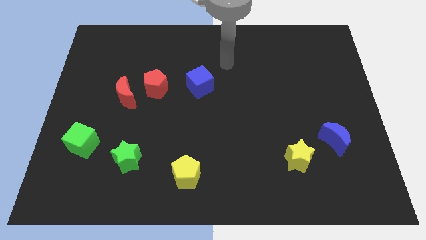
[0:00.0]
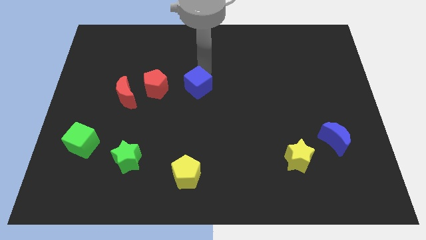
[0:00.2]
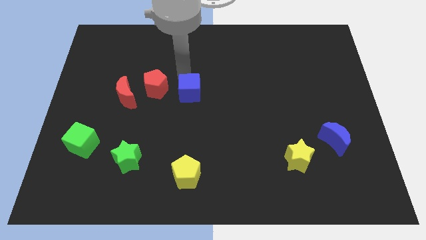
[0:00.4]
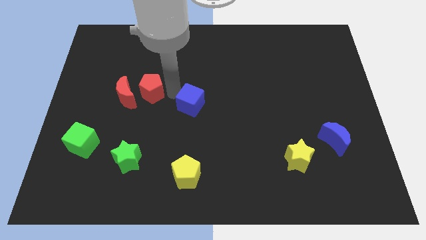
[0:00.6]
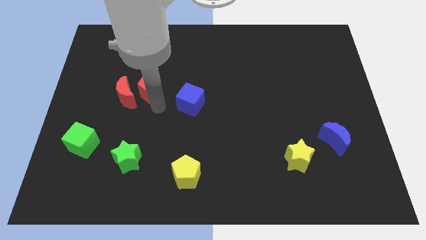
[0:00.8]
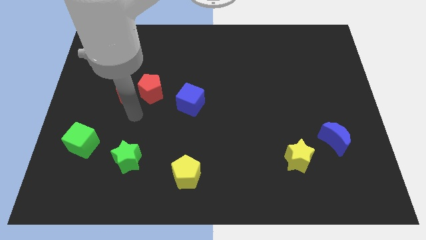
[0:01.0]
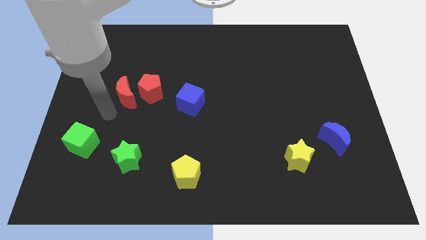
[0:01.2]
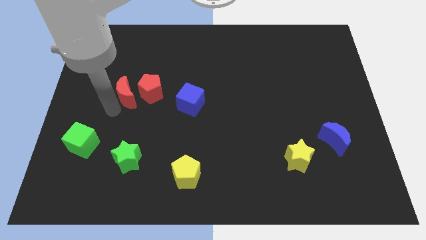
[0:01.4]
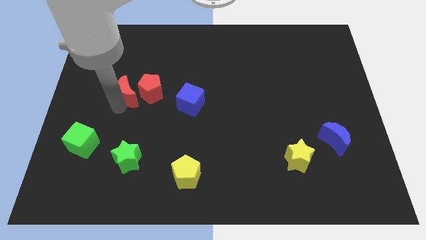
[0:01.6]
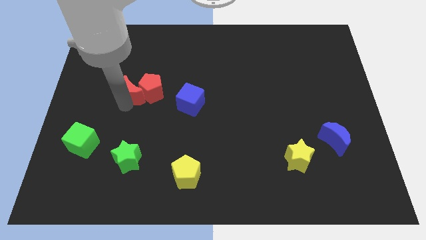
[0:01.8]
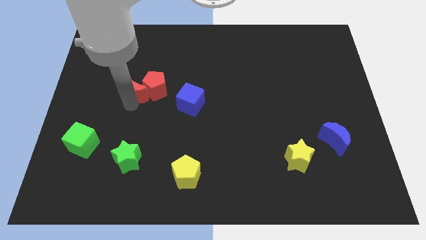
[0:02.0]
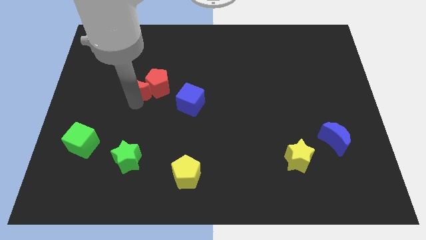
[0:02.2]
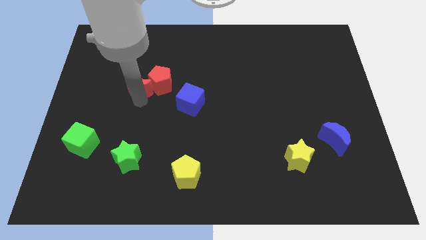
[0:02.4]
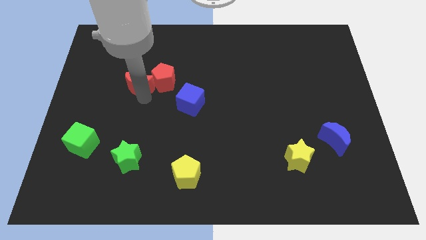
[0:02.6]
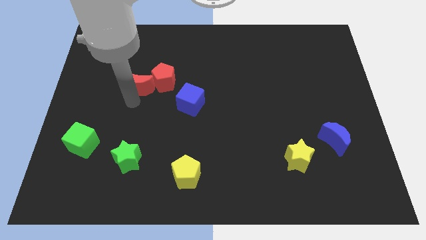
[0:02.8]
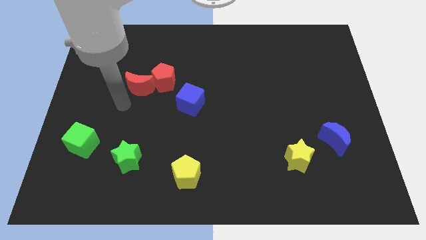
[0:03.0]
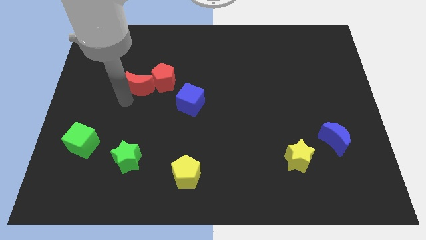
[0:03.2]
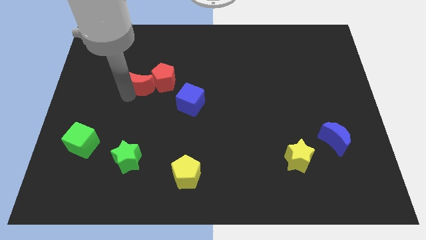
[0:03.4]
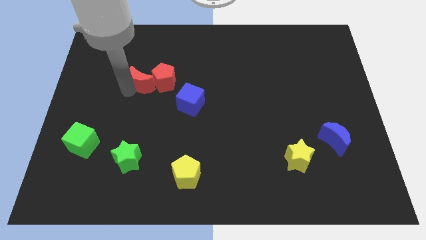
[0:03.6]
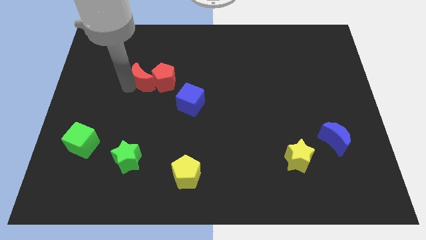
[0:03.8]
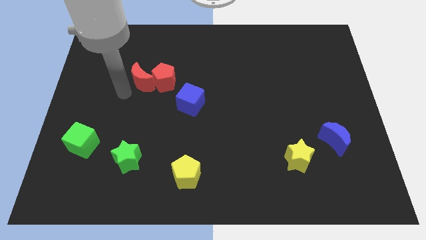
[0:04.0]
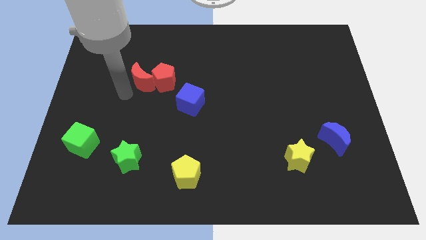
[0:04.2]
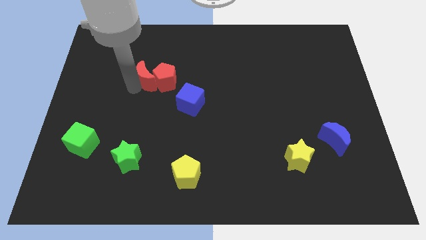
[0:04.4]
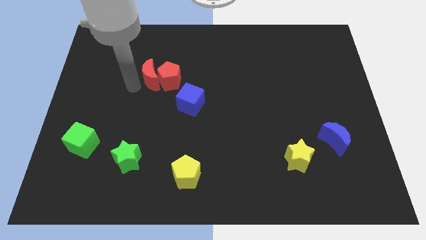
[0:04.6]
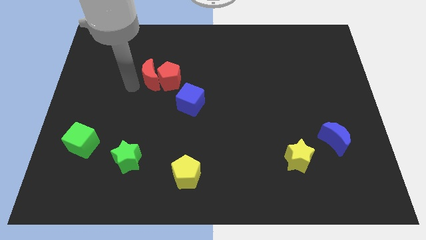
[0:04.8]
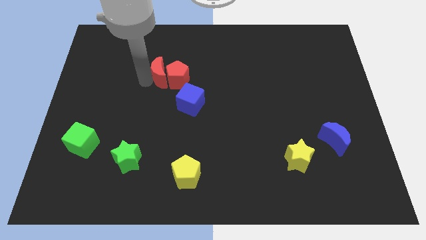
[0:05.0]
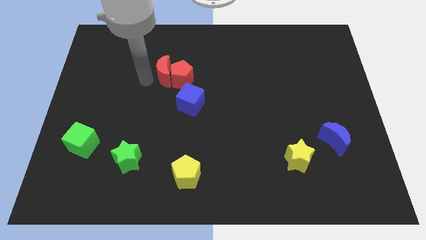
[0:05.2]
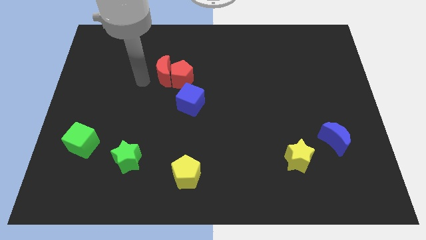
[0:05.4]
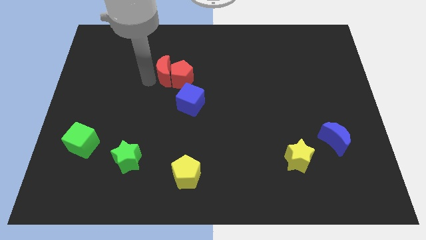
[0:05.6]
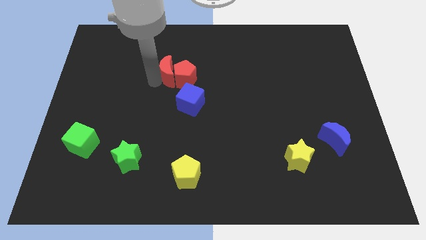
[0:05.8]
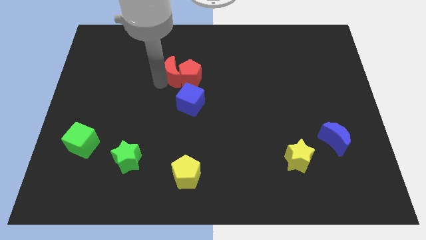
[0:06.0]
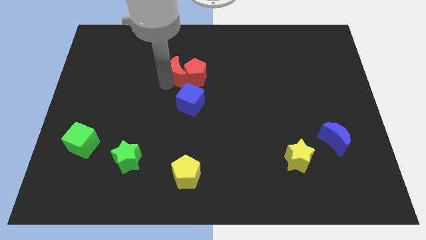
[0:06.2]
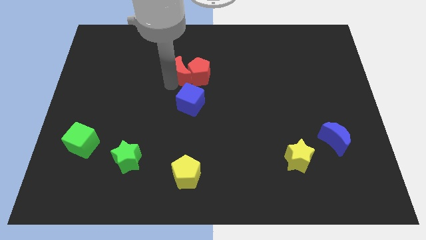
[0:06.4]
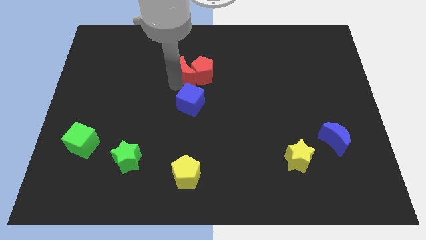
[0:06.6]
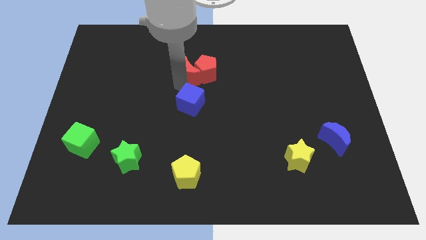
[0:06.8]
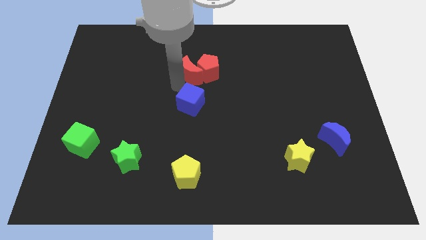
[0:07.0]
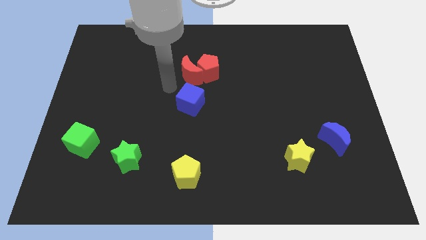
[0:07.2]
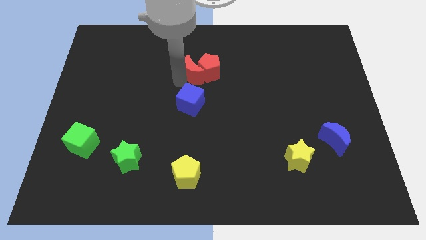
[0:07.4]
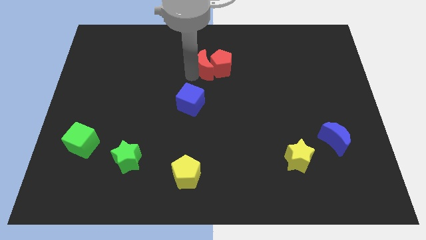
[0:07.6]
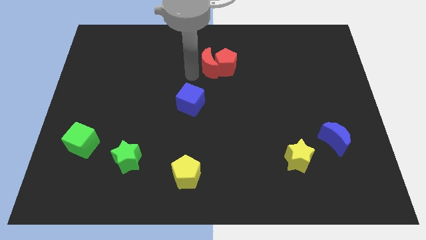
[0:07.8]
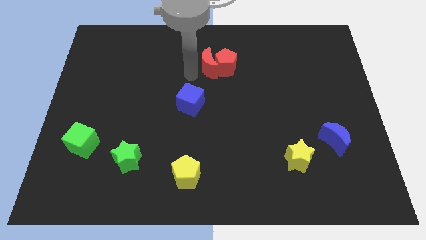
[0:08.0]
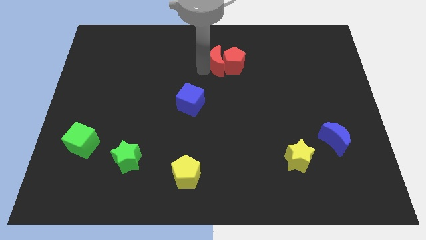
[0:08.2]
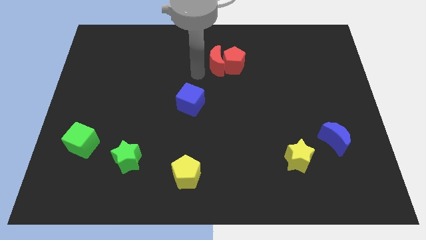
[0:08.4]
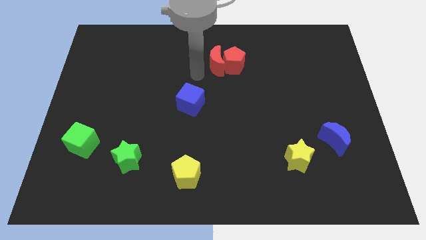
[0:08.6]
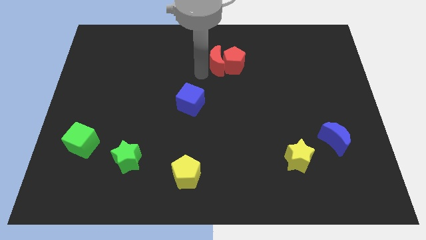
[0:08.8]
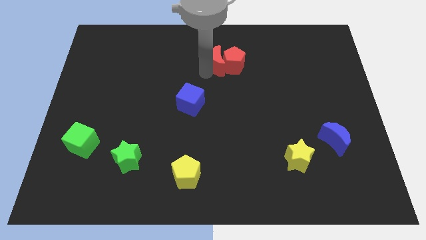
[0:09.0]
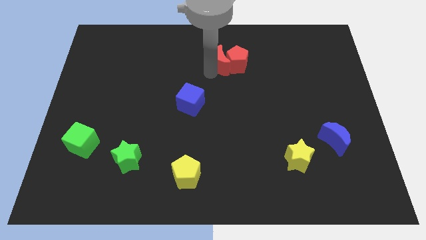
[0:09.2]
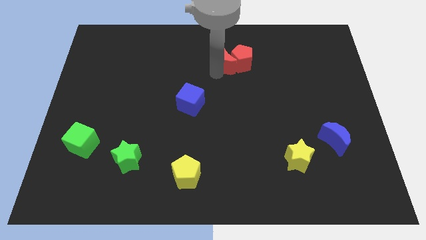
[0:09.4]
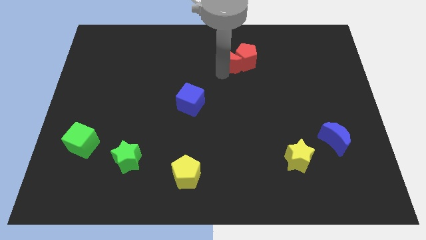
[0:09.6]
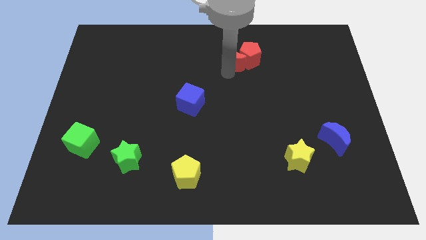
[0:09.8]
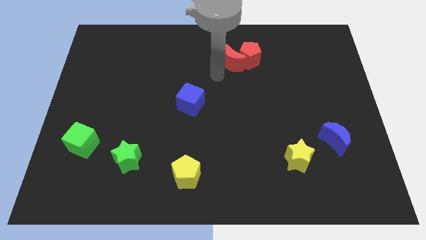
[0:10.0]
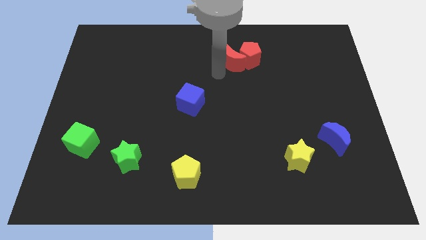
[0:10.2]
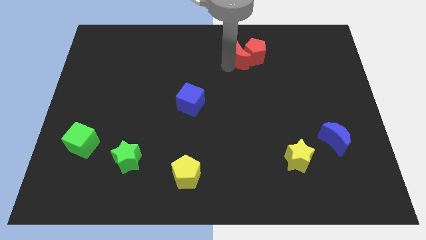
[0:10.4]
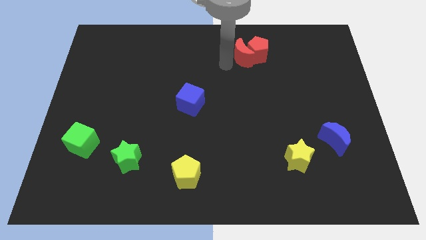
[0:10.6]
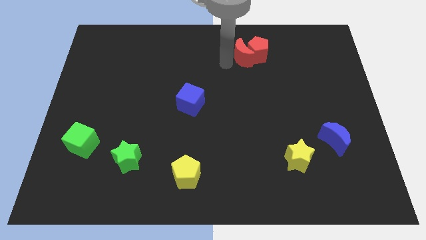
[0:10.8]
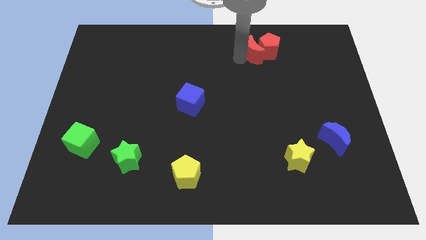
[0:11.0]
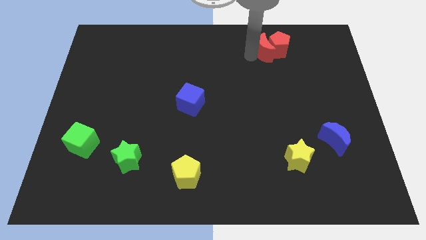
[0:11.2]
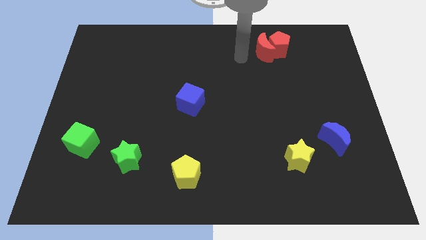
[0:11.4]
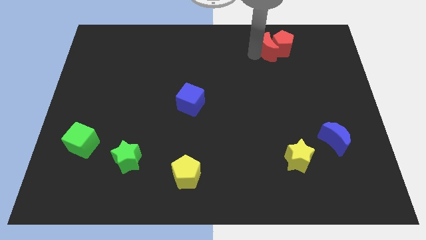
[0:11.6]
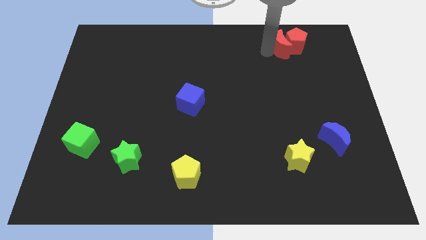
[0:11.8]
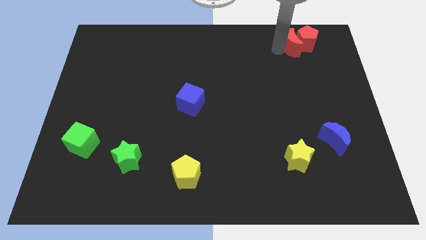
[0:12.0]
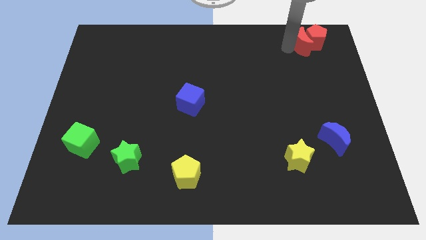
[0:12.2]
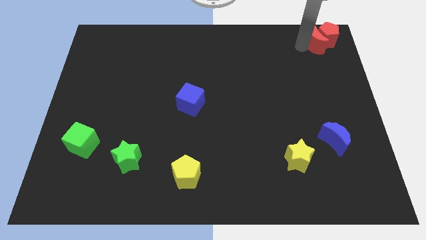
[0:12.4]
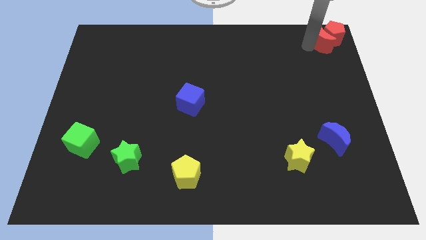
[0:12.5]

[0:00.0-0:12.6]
move the red moon to the upper right corner

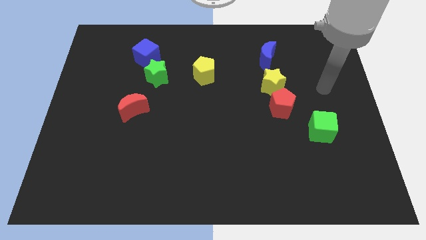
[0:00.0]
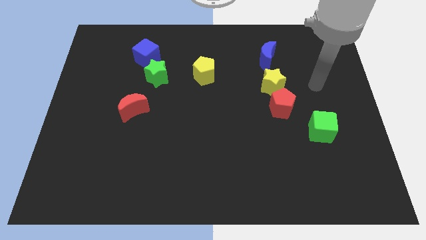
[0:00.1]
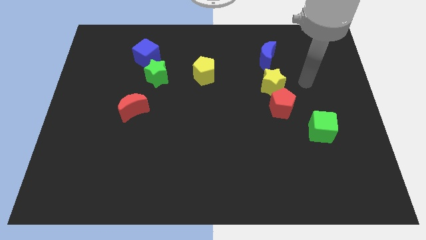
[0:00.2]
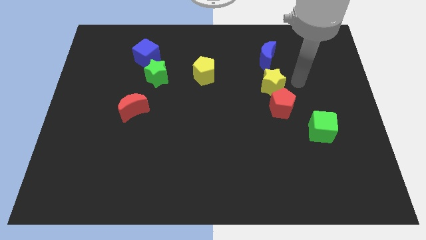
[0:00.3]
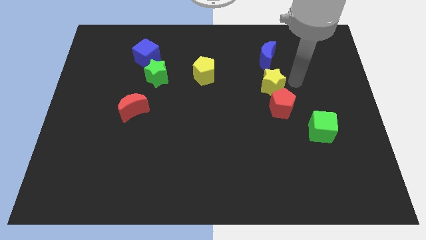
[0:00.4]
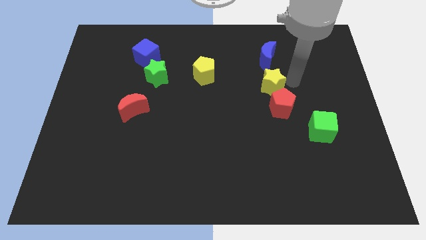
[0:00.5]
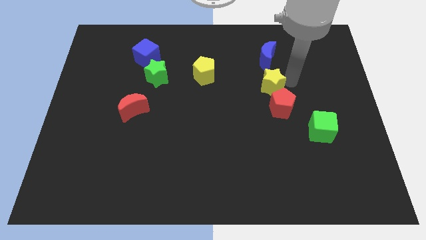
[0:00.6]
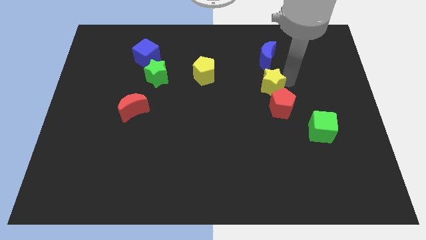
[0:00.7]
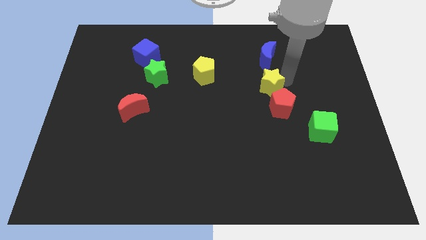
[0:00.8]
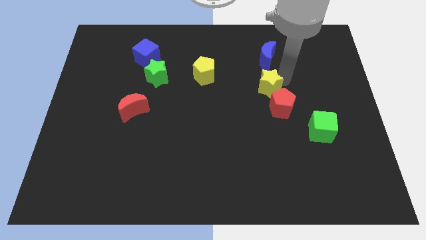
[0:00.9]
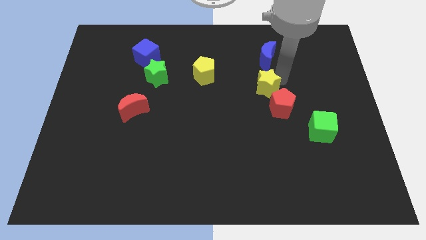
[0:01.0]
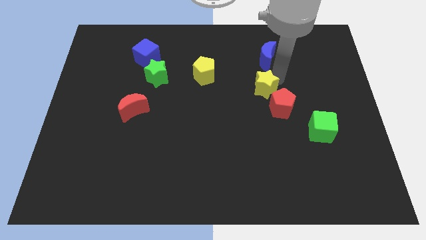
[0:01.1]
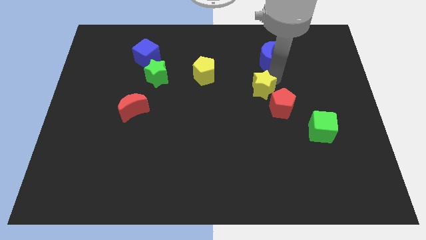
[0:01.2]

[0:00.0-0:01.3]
push the yellow star to the center of the board
